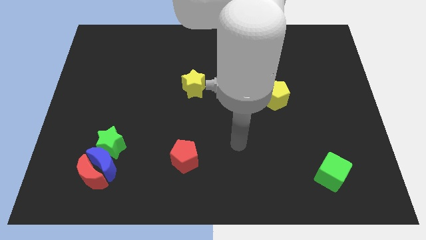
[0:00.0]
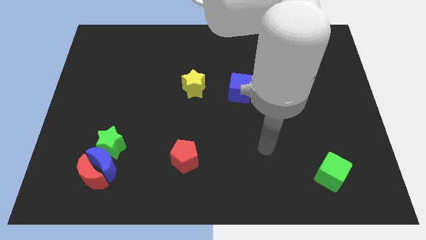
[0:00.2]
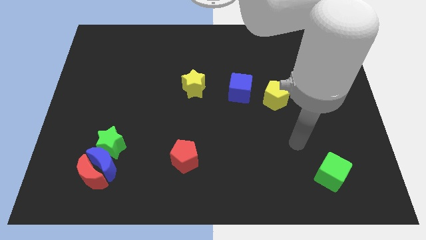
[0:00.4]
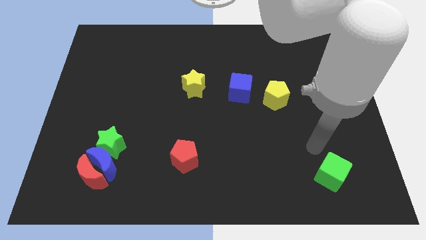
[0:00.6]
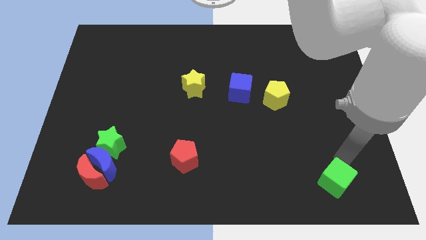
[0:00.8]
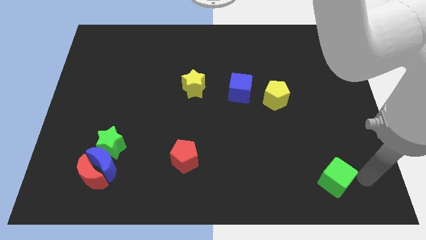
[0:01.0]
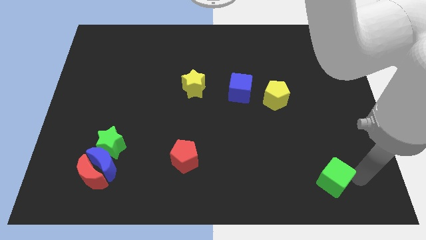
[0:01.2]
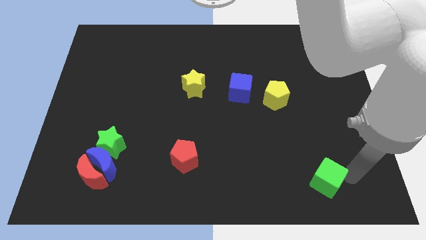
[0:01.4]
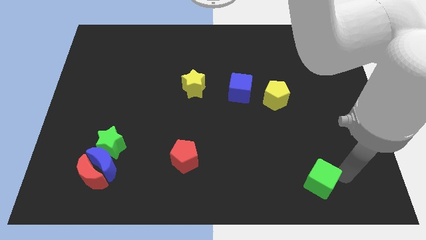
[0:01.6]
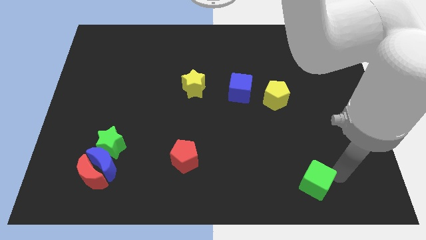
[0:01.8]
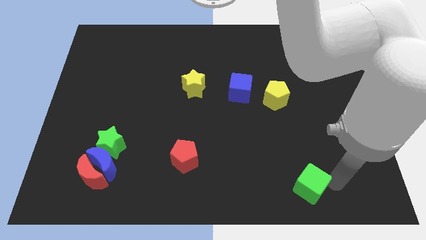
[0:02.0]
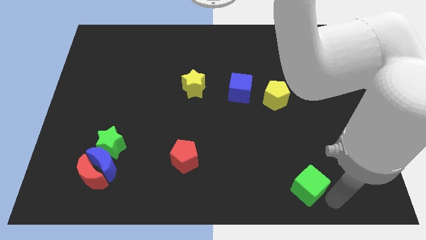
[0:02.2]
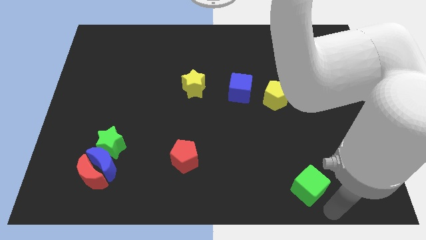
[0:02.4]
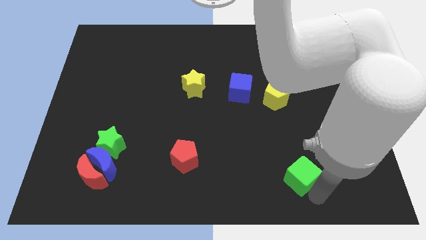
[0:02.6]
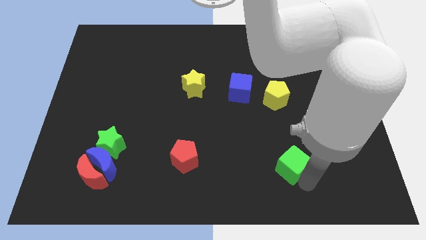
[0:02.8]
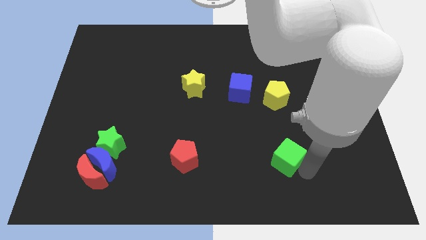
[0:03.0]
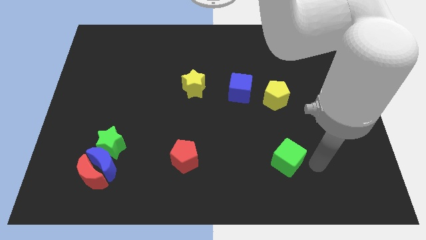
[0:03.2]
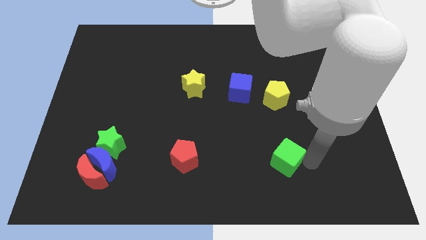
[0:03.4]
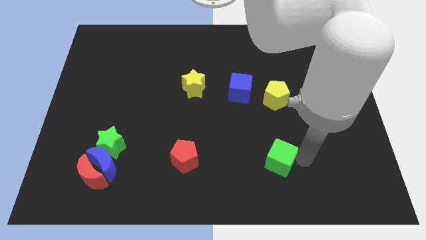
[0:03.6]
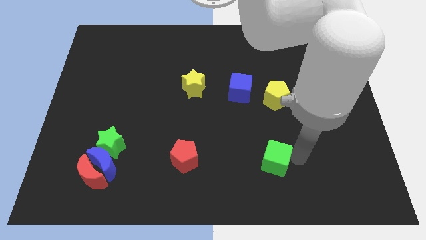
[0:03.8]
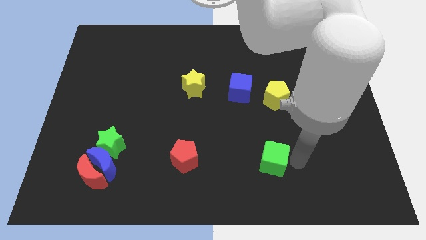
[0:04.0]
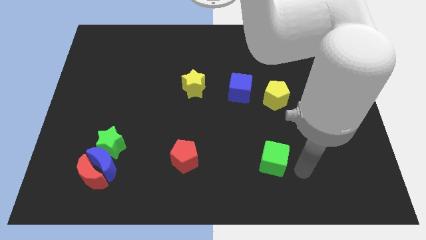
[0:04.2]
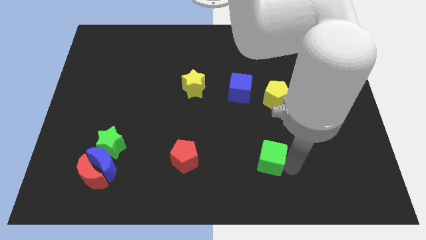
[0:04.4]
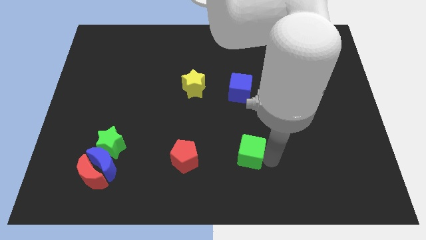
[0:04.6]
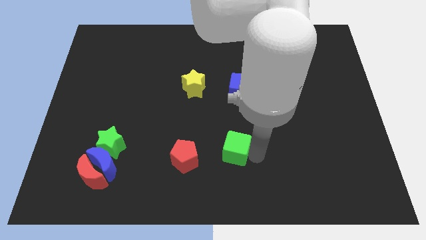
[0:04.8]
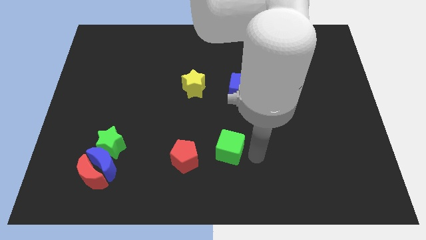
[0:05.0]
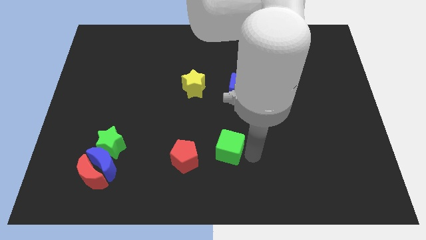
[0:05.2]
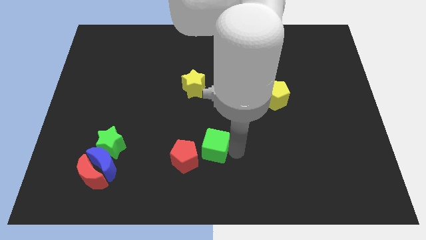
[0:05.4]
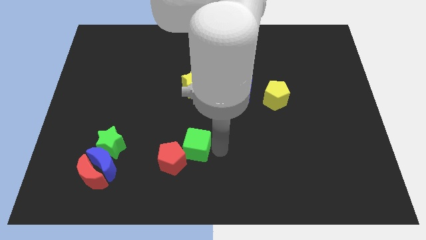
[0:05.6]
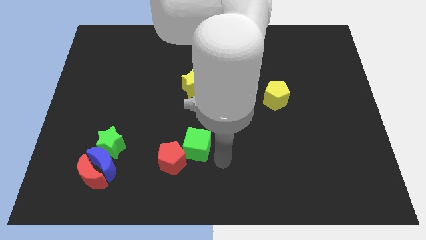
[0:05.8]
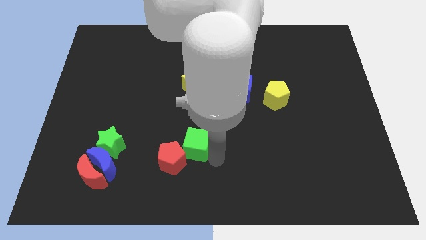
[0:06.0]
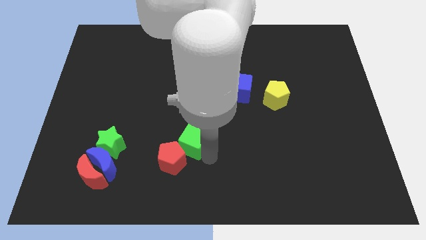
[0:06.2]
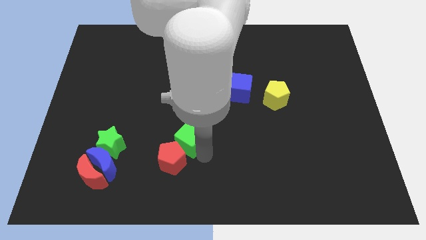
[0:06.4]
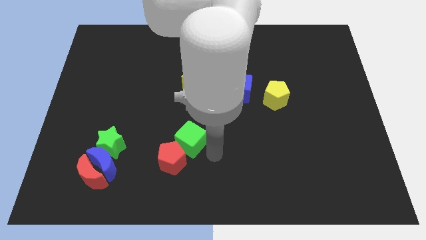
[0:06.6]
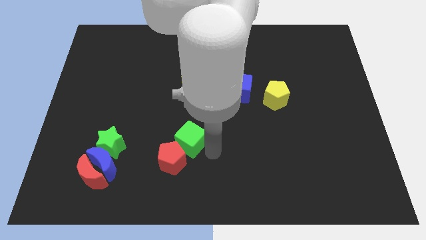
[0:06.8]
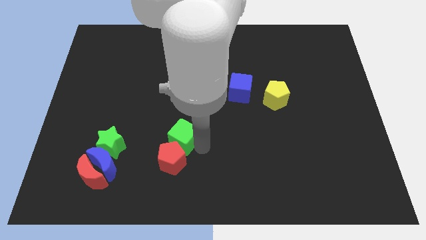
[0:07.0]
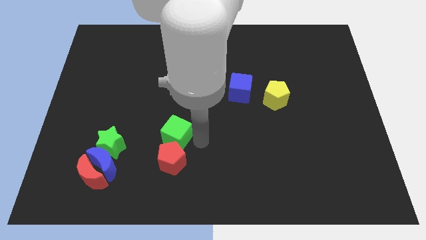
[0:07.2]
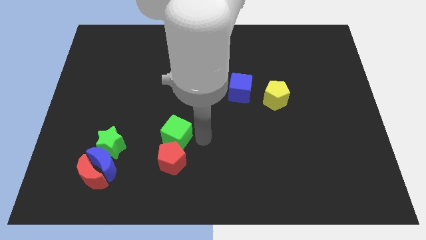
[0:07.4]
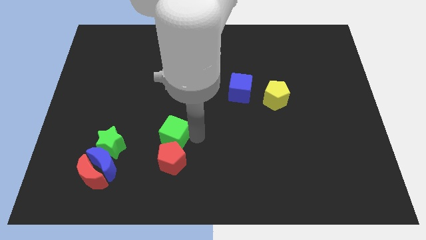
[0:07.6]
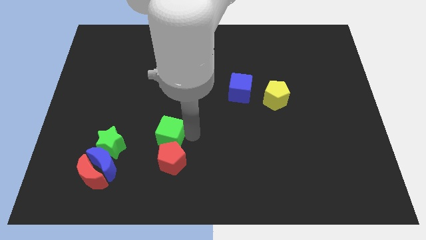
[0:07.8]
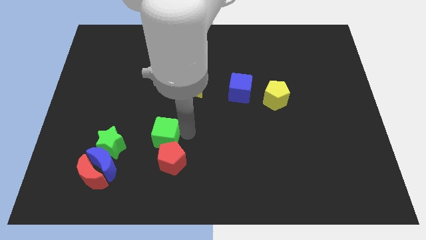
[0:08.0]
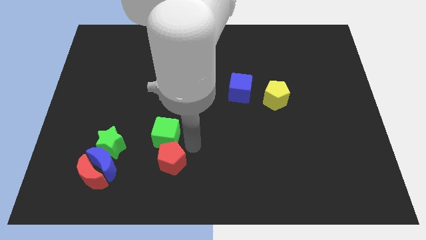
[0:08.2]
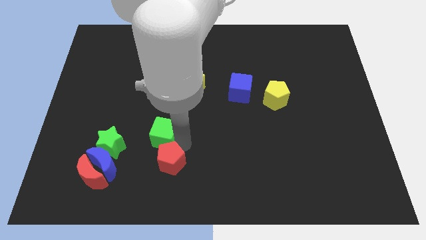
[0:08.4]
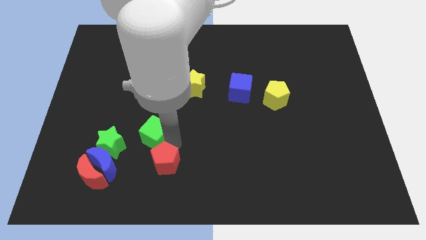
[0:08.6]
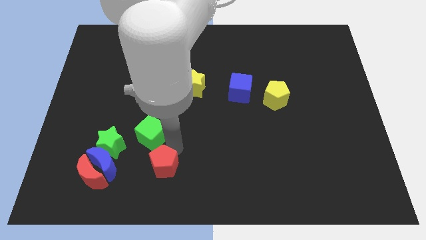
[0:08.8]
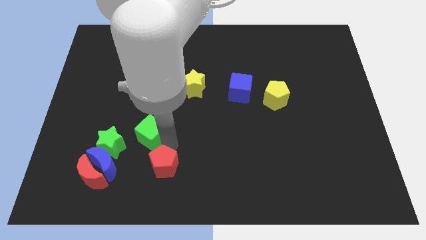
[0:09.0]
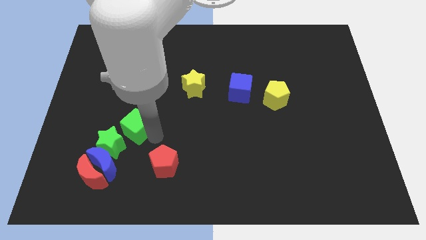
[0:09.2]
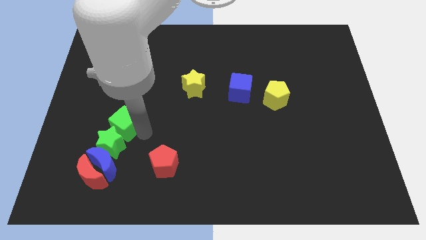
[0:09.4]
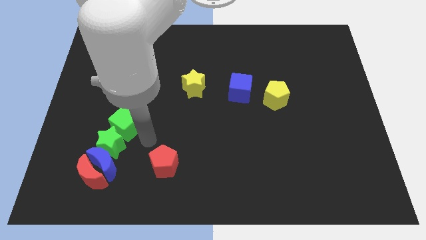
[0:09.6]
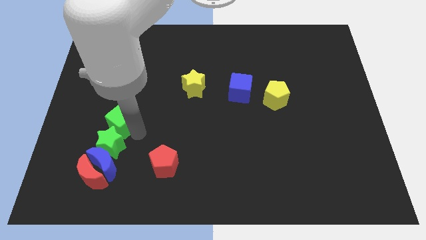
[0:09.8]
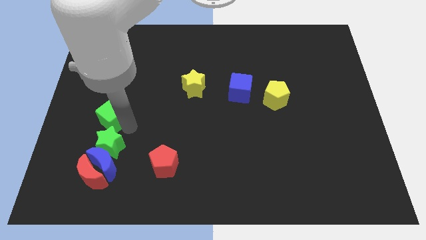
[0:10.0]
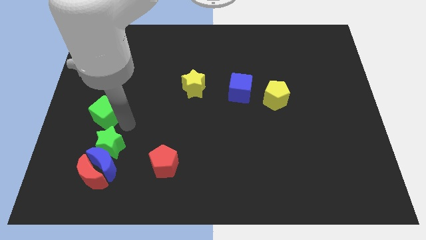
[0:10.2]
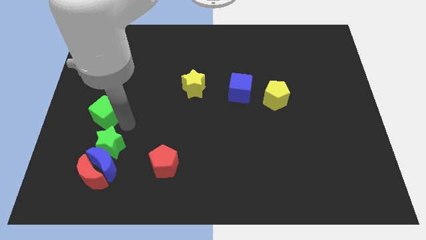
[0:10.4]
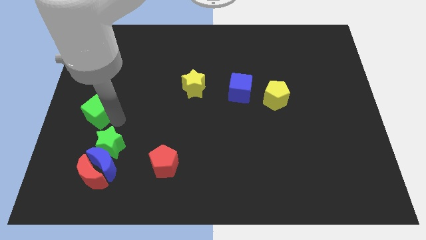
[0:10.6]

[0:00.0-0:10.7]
move the green cube to the left side

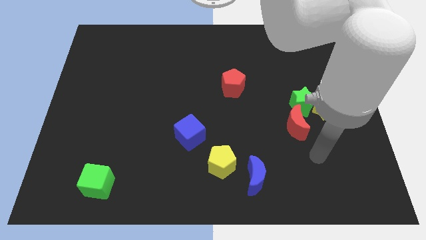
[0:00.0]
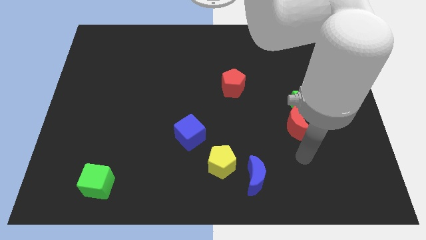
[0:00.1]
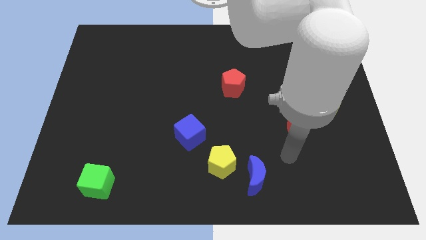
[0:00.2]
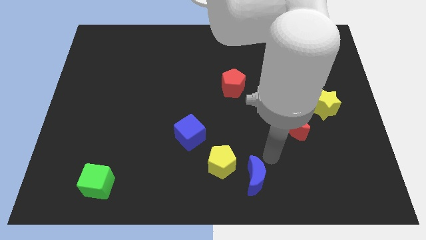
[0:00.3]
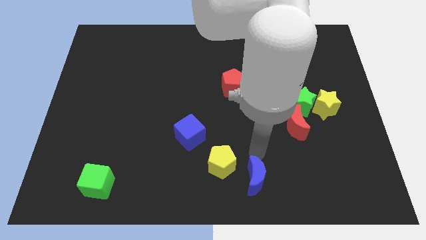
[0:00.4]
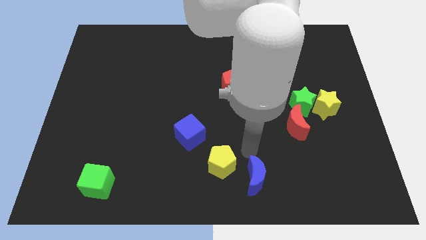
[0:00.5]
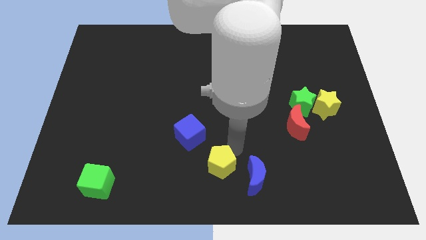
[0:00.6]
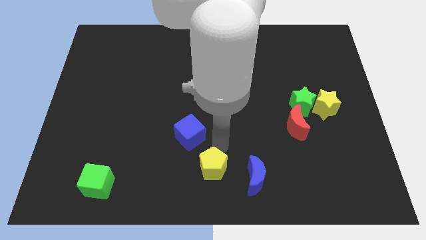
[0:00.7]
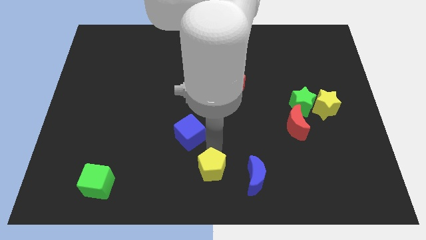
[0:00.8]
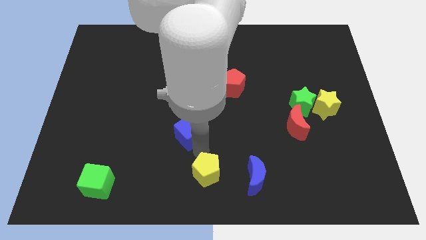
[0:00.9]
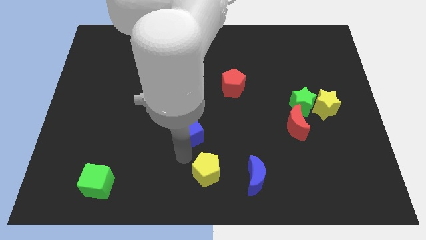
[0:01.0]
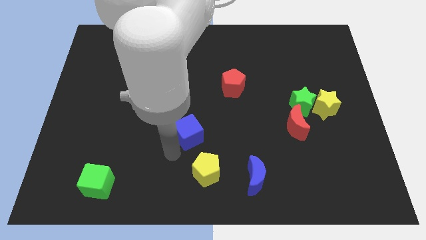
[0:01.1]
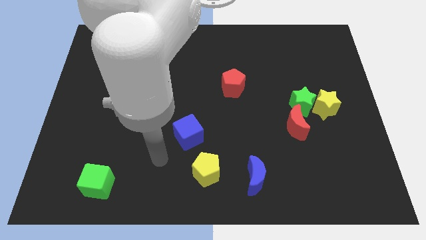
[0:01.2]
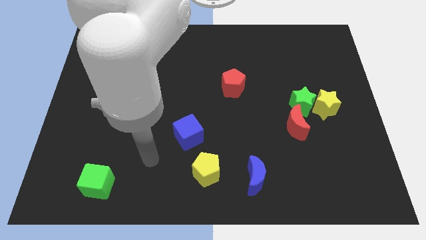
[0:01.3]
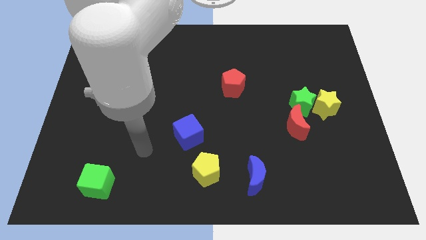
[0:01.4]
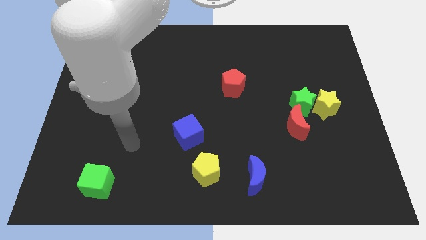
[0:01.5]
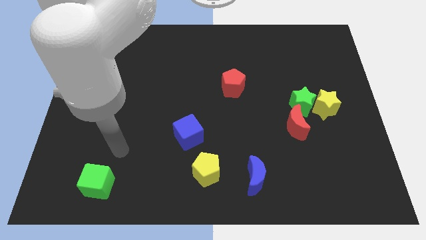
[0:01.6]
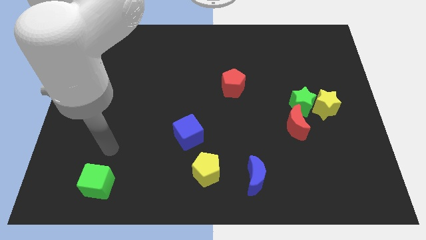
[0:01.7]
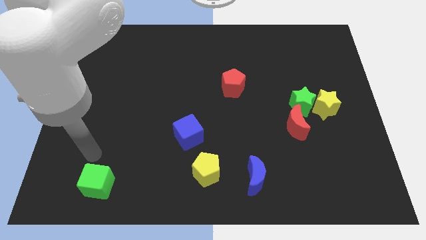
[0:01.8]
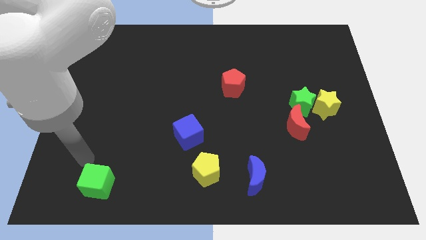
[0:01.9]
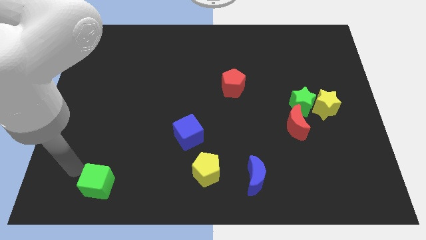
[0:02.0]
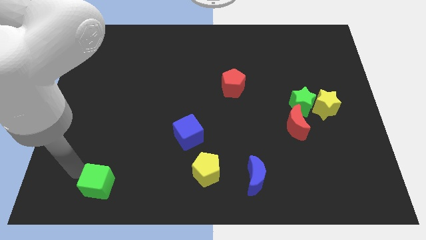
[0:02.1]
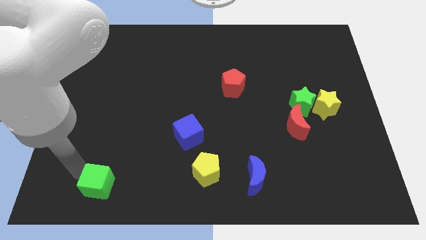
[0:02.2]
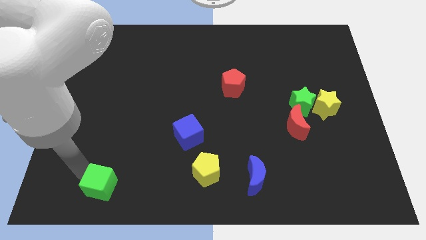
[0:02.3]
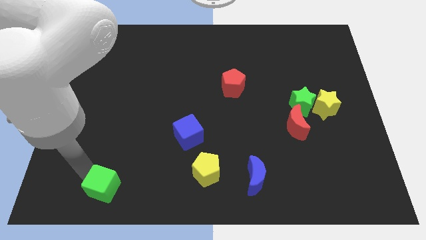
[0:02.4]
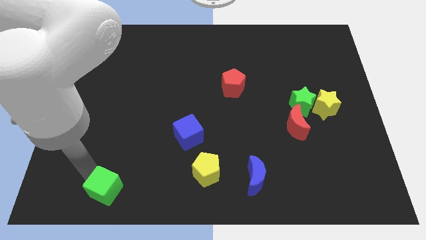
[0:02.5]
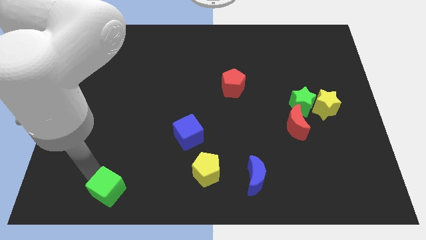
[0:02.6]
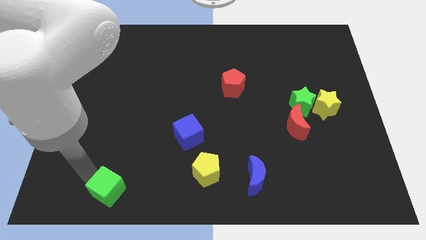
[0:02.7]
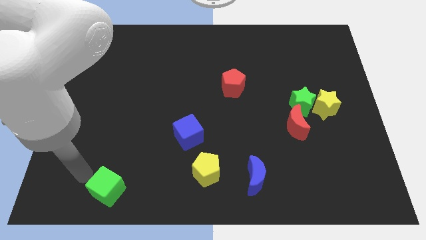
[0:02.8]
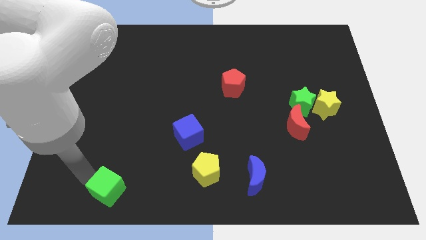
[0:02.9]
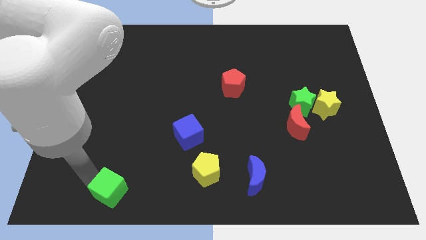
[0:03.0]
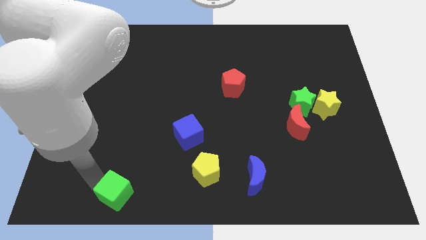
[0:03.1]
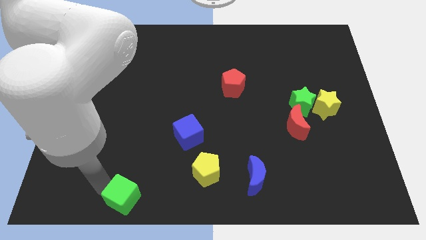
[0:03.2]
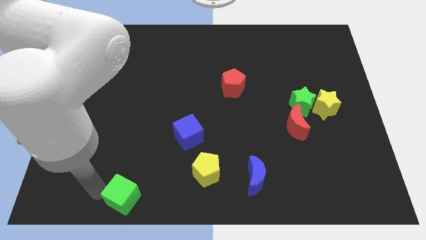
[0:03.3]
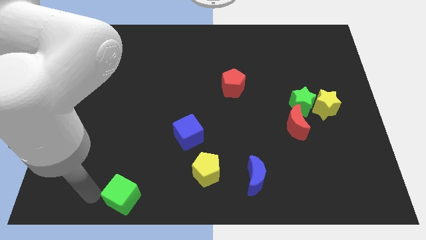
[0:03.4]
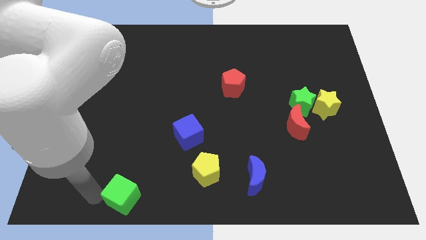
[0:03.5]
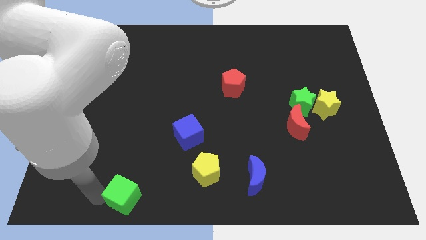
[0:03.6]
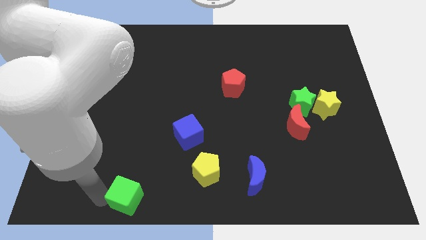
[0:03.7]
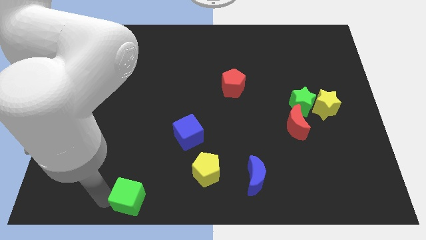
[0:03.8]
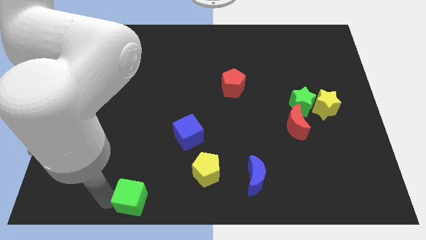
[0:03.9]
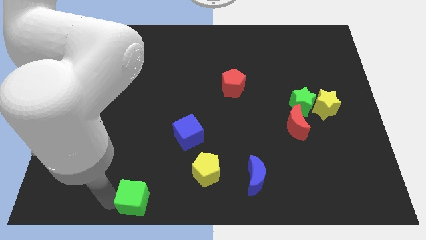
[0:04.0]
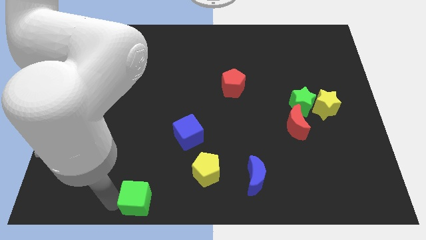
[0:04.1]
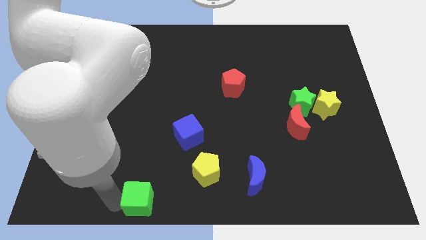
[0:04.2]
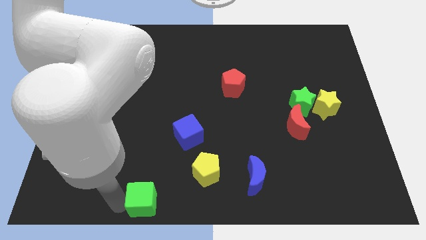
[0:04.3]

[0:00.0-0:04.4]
slide the green cube to the bottom
